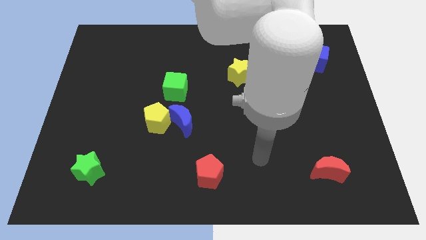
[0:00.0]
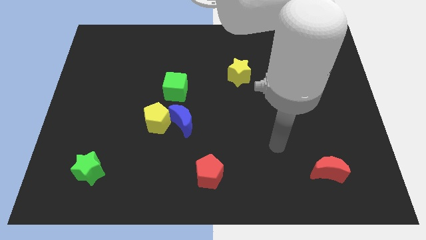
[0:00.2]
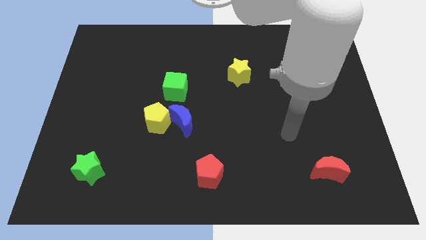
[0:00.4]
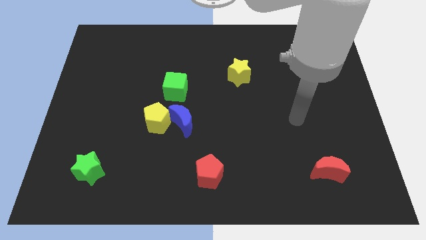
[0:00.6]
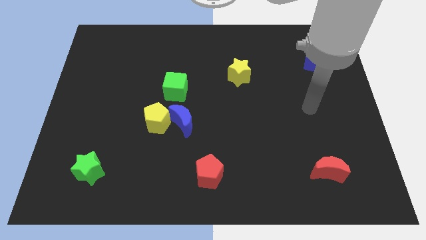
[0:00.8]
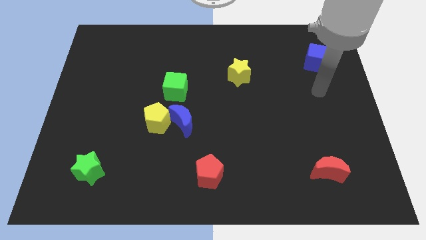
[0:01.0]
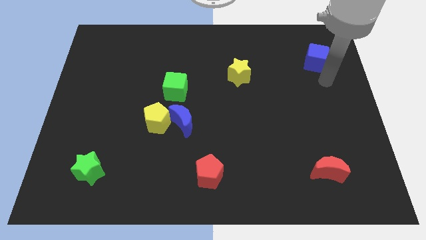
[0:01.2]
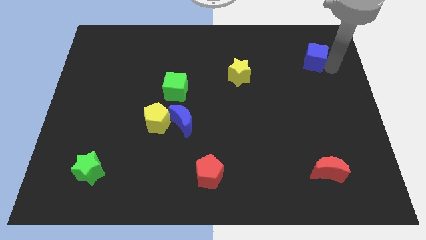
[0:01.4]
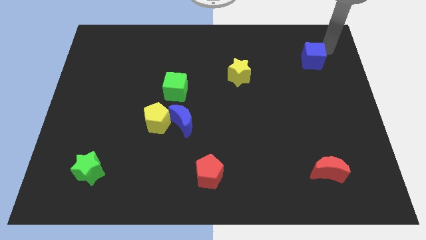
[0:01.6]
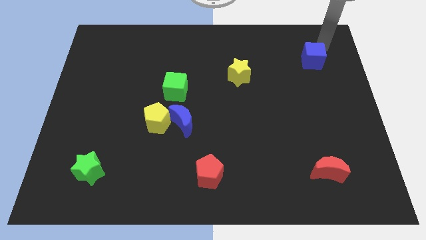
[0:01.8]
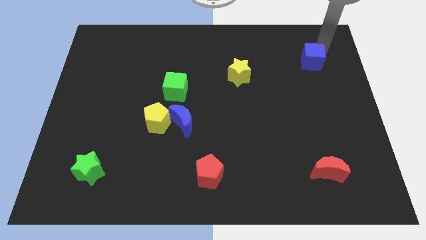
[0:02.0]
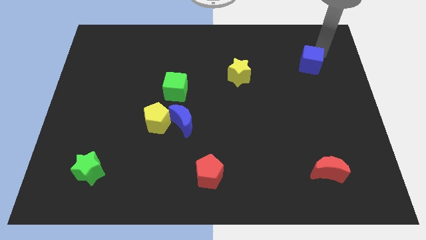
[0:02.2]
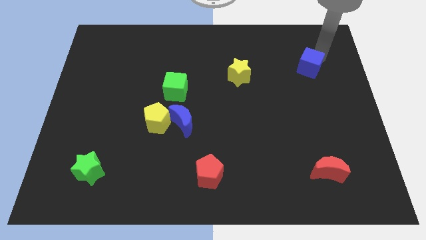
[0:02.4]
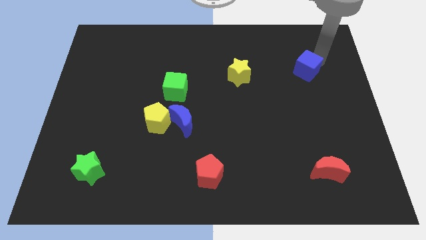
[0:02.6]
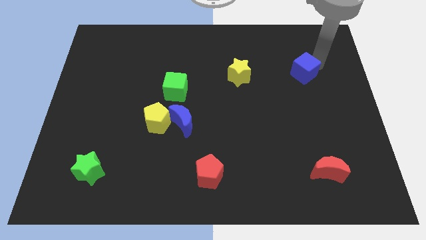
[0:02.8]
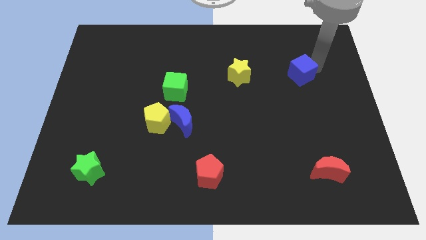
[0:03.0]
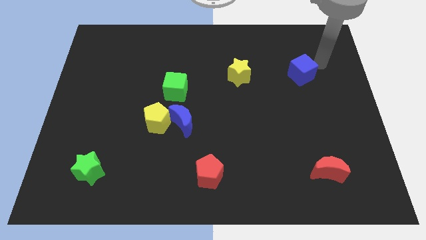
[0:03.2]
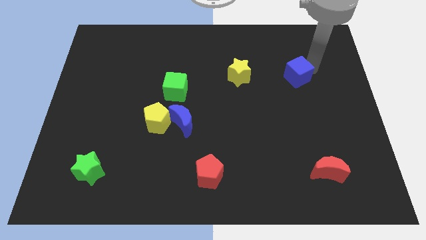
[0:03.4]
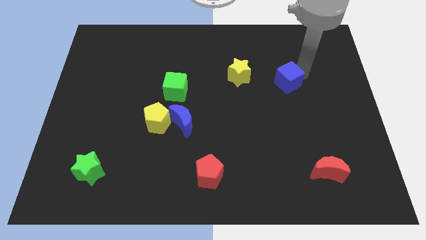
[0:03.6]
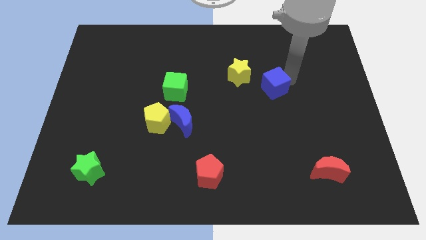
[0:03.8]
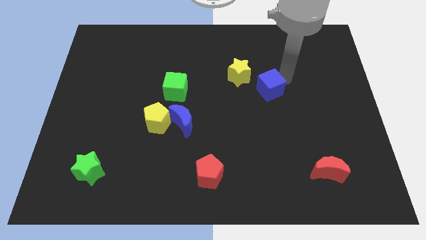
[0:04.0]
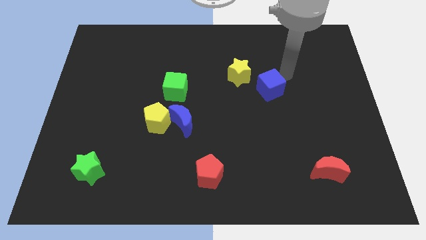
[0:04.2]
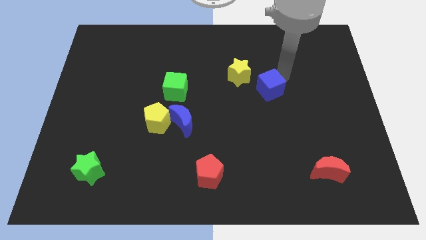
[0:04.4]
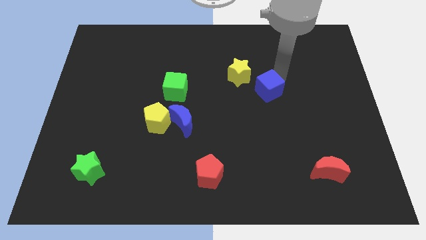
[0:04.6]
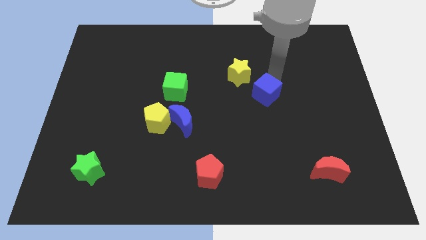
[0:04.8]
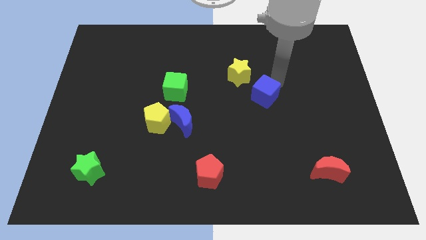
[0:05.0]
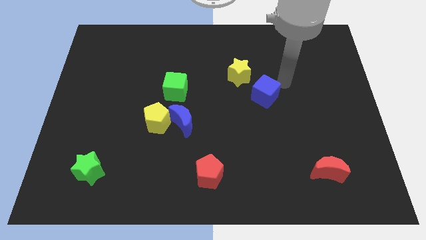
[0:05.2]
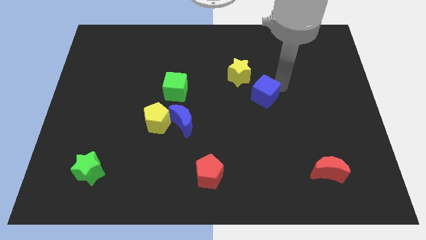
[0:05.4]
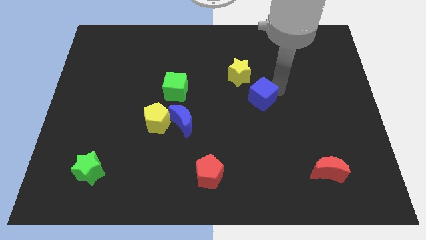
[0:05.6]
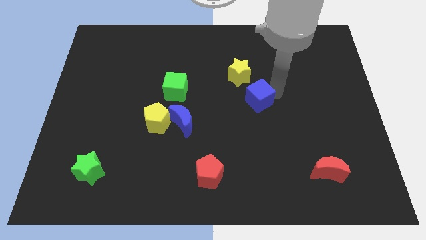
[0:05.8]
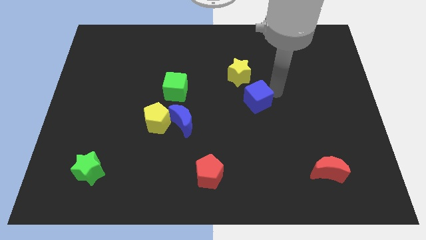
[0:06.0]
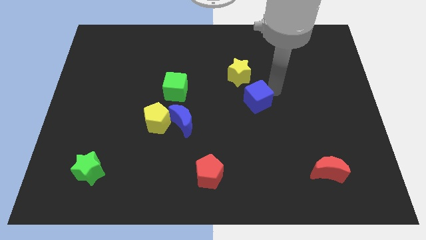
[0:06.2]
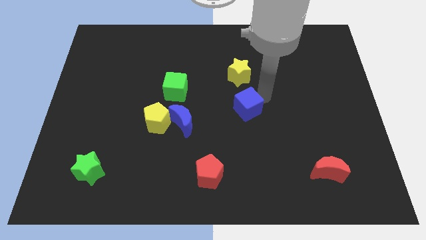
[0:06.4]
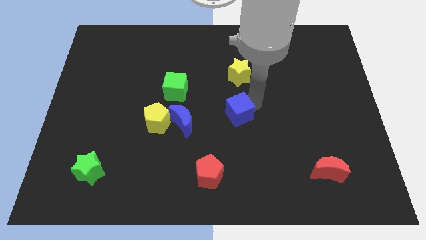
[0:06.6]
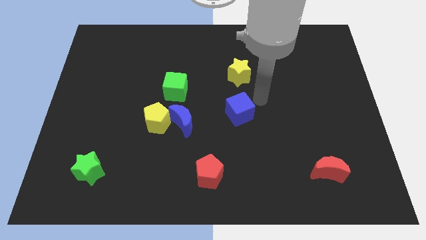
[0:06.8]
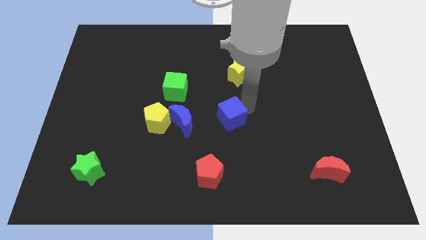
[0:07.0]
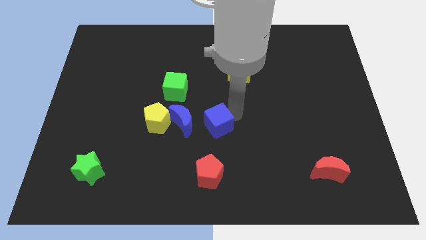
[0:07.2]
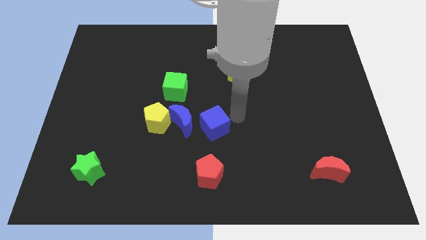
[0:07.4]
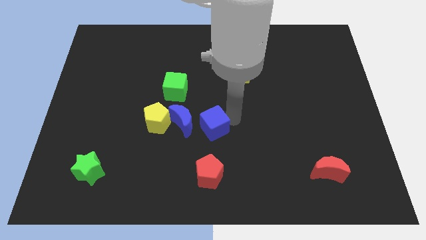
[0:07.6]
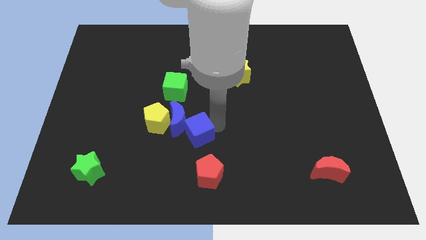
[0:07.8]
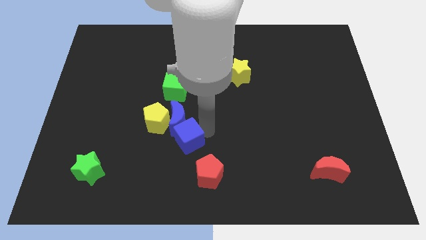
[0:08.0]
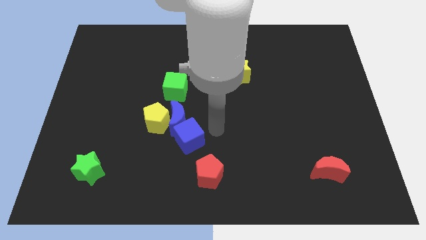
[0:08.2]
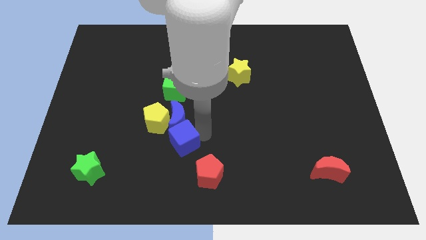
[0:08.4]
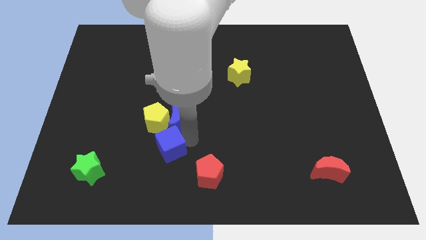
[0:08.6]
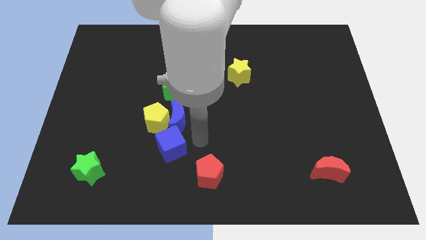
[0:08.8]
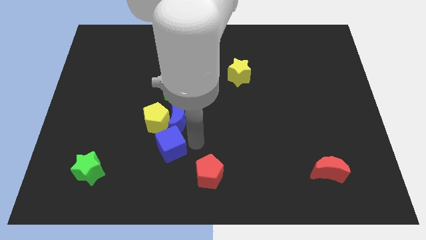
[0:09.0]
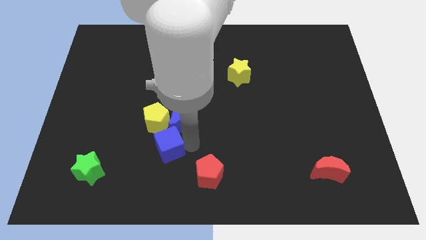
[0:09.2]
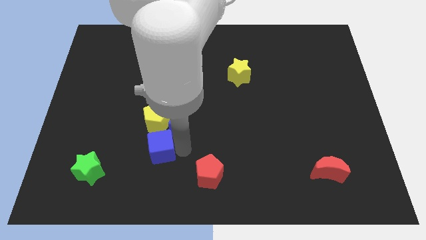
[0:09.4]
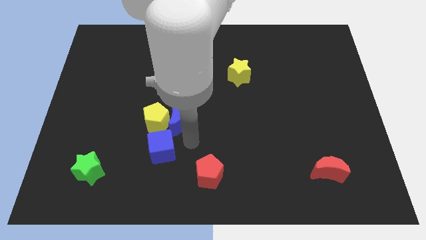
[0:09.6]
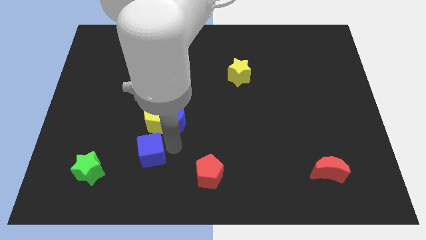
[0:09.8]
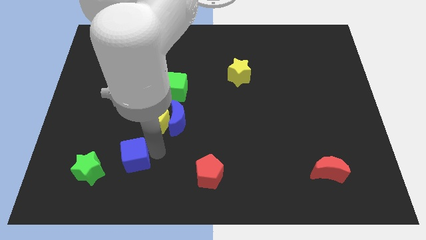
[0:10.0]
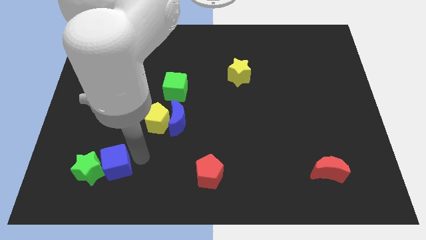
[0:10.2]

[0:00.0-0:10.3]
push the blue cube to the green star

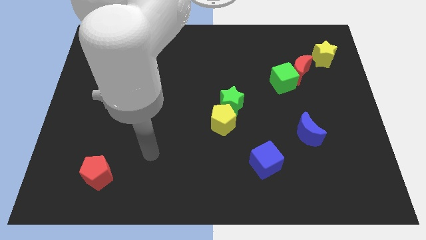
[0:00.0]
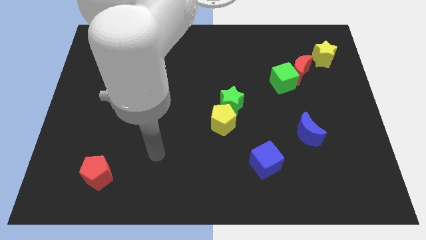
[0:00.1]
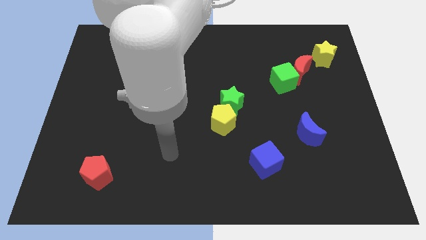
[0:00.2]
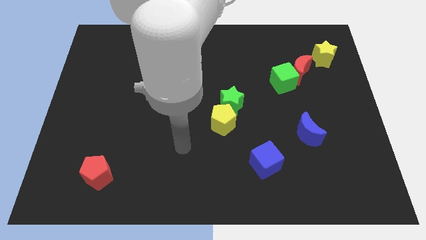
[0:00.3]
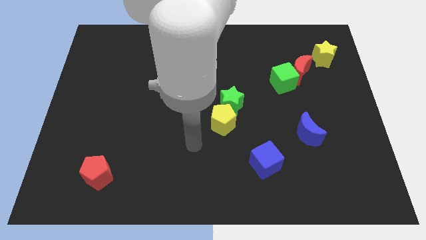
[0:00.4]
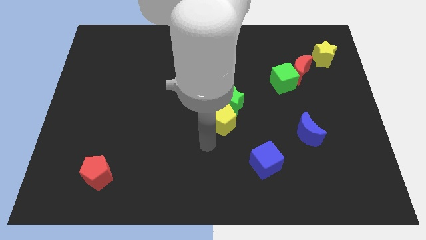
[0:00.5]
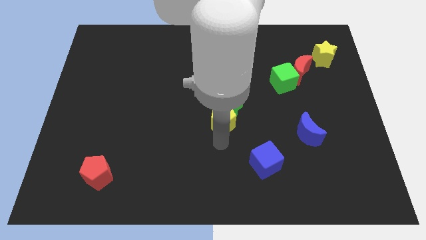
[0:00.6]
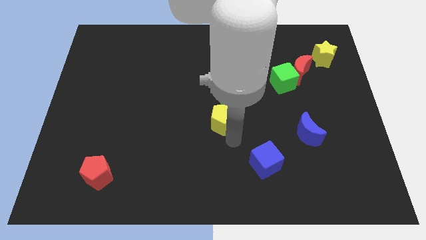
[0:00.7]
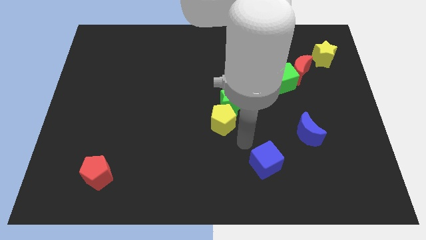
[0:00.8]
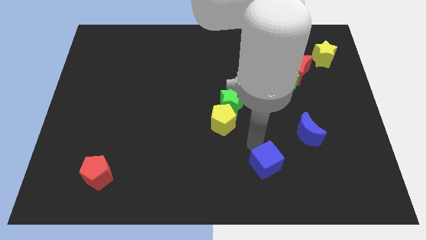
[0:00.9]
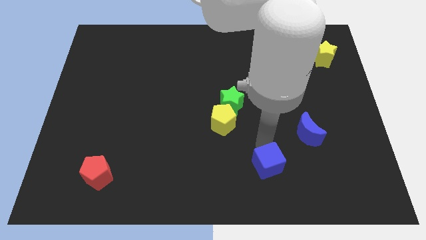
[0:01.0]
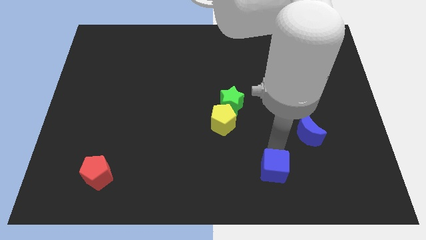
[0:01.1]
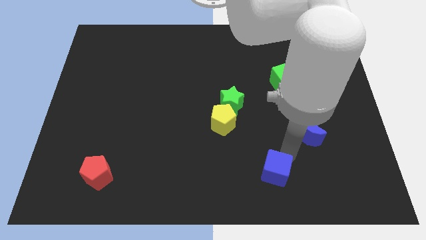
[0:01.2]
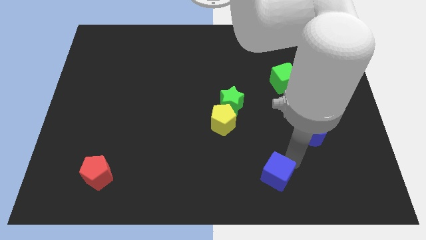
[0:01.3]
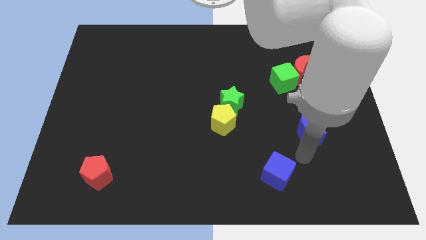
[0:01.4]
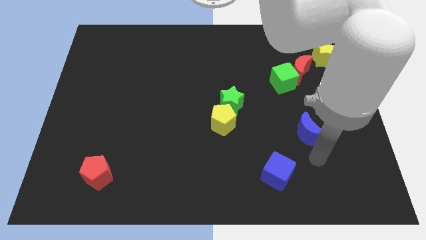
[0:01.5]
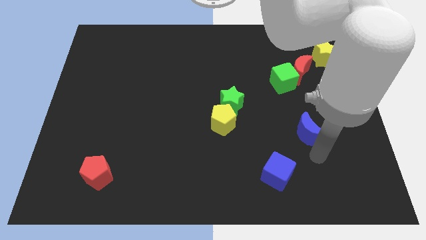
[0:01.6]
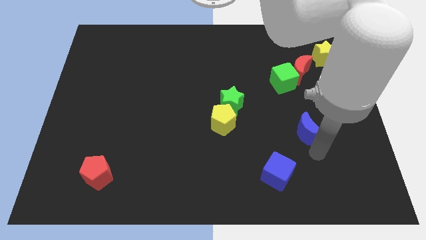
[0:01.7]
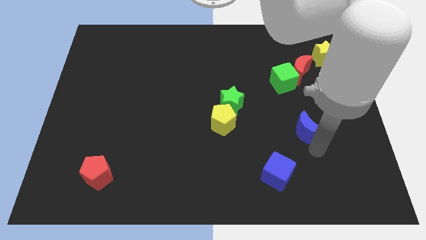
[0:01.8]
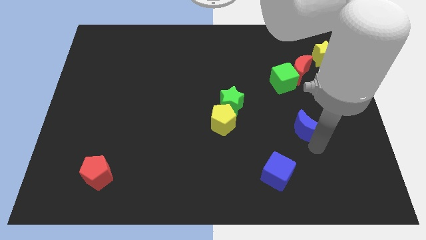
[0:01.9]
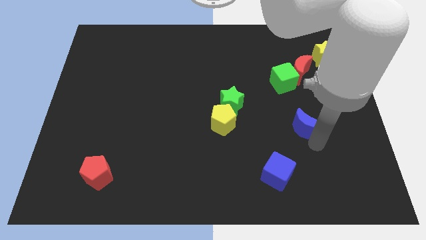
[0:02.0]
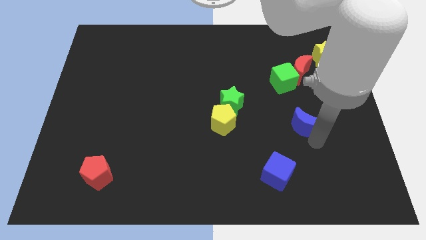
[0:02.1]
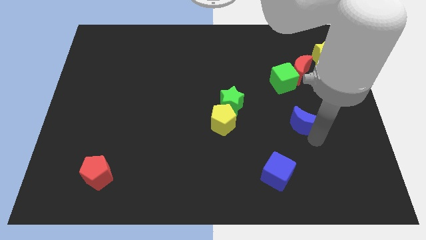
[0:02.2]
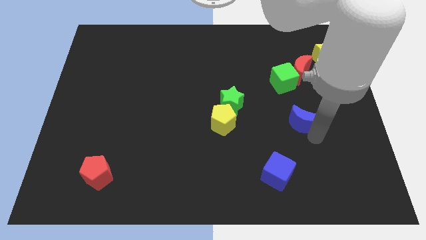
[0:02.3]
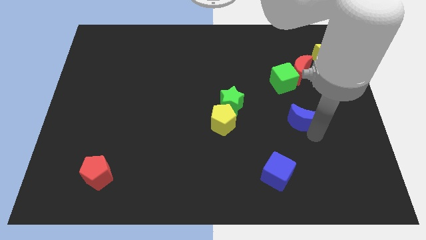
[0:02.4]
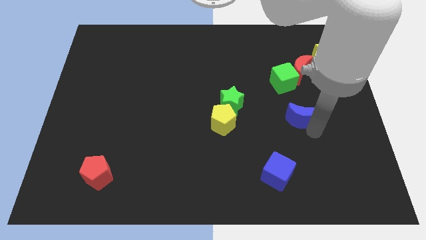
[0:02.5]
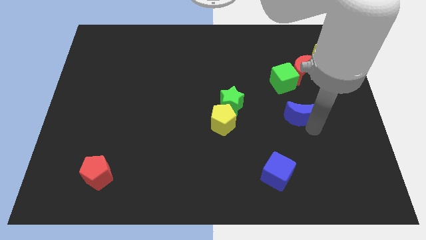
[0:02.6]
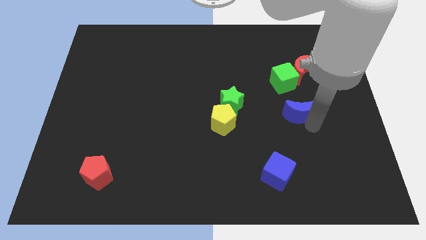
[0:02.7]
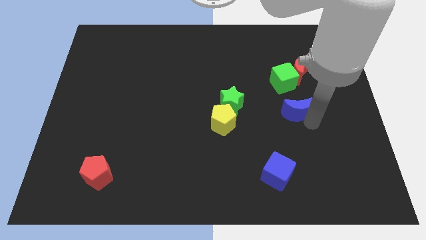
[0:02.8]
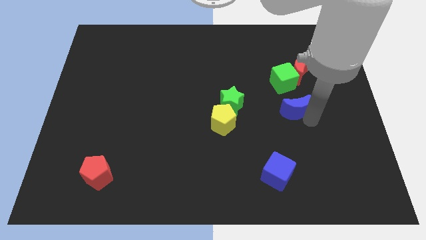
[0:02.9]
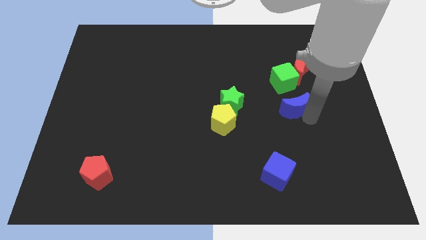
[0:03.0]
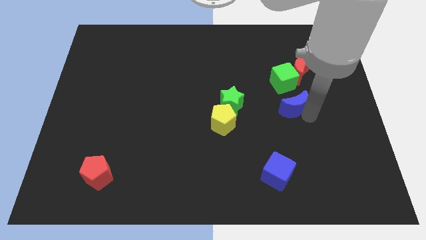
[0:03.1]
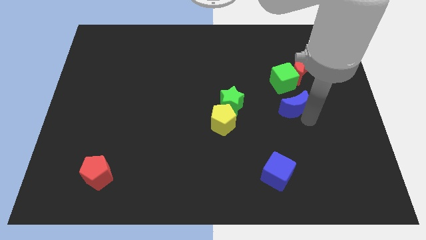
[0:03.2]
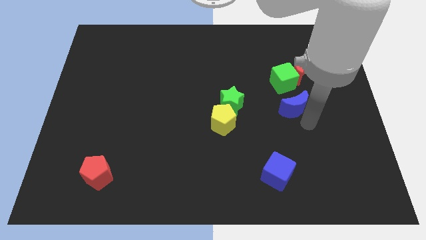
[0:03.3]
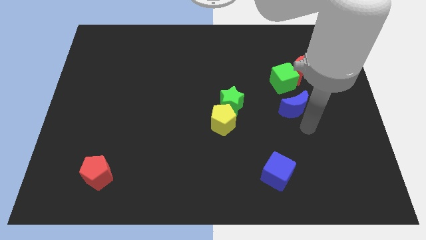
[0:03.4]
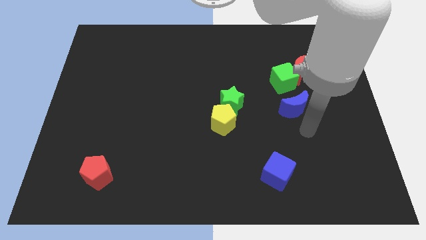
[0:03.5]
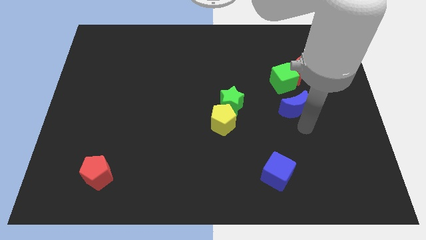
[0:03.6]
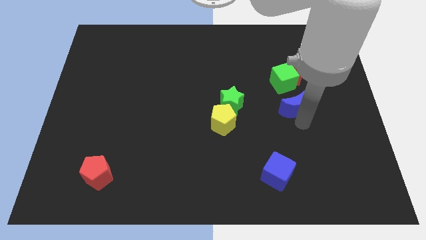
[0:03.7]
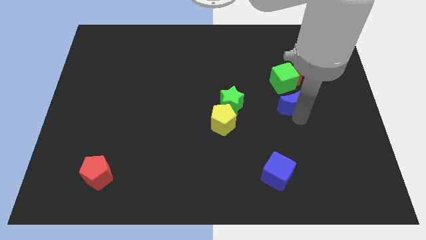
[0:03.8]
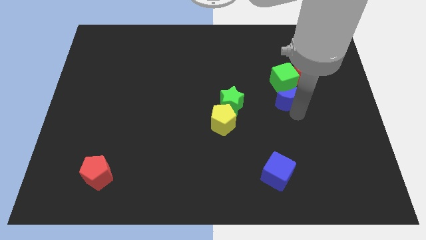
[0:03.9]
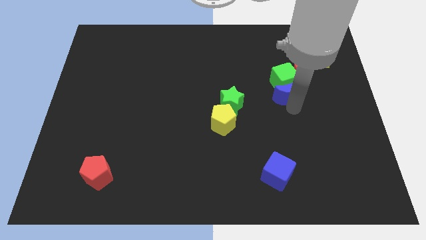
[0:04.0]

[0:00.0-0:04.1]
push the blue moon towards the green cube
